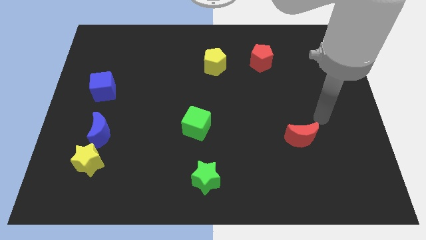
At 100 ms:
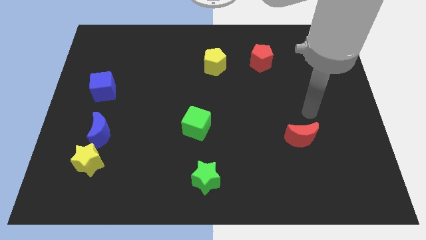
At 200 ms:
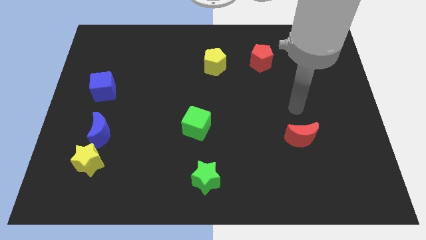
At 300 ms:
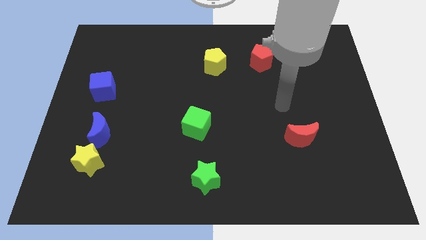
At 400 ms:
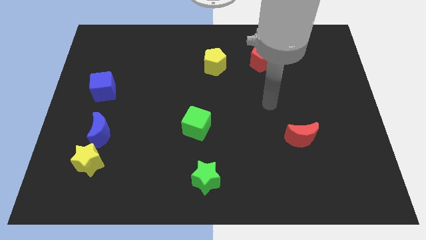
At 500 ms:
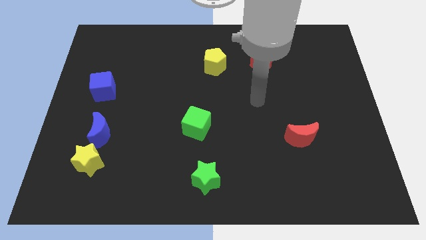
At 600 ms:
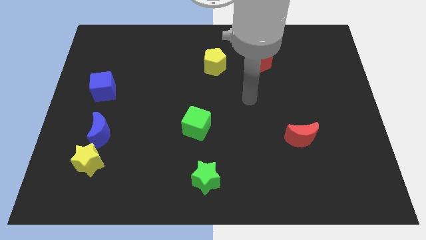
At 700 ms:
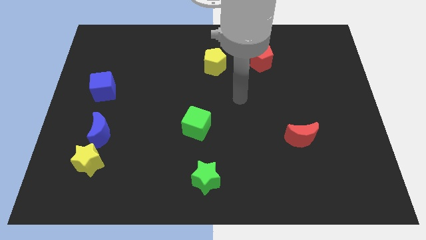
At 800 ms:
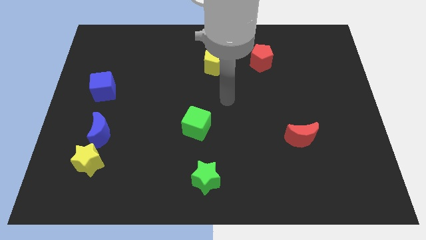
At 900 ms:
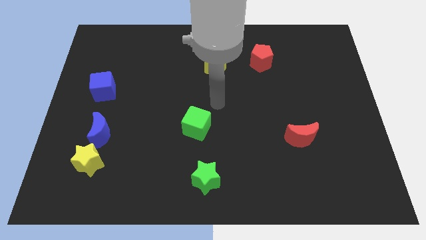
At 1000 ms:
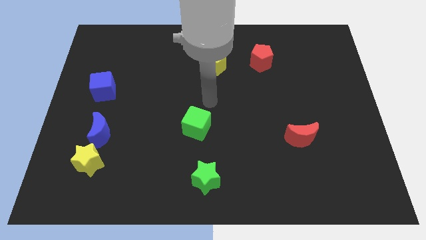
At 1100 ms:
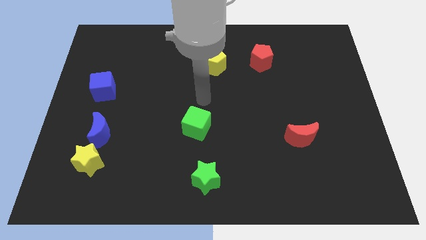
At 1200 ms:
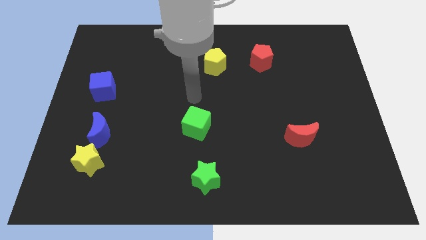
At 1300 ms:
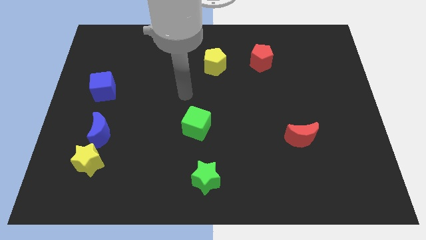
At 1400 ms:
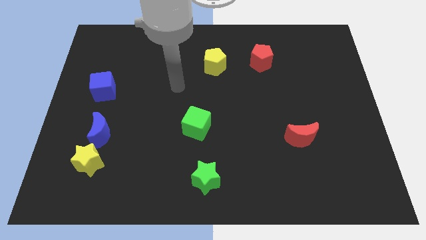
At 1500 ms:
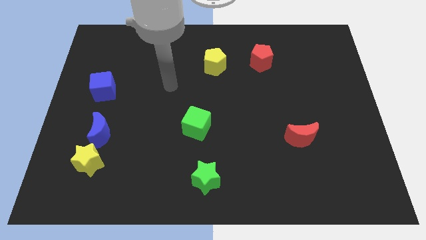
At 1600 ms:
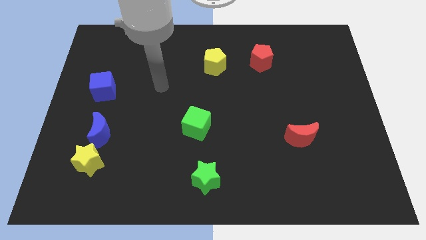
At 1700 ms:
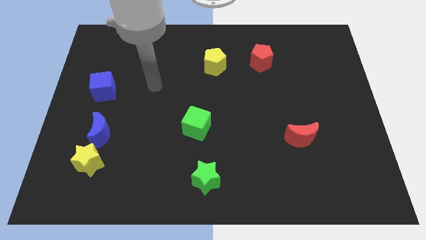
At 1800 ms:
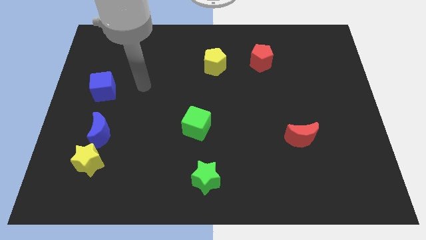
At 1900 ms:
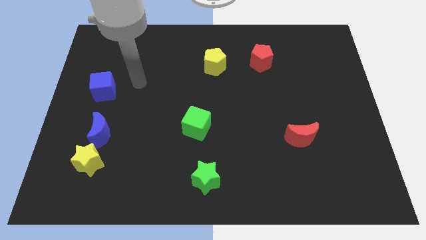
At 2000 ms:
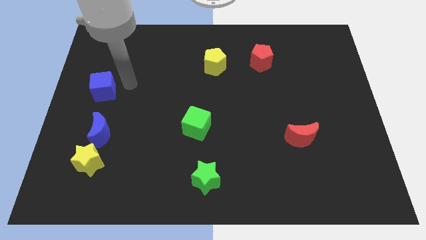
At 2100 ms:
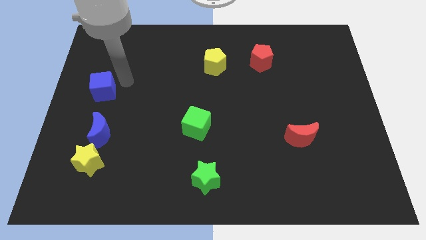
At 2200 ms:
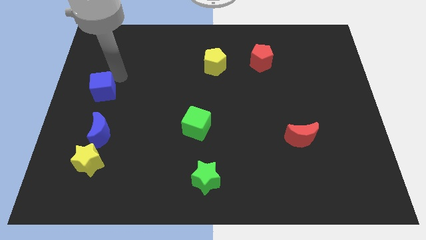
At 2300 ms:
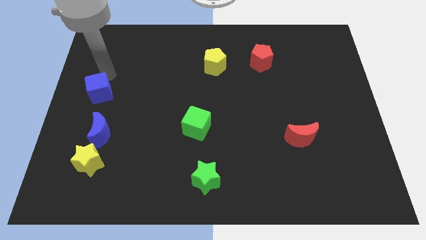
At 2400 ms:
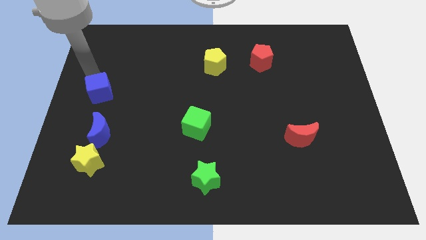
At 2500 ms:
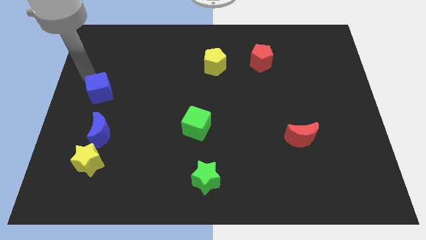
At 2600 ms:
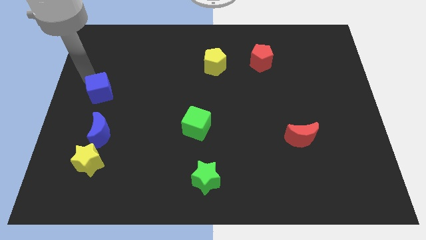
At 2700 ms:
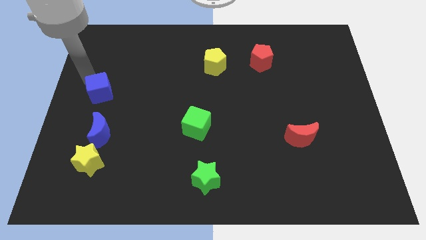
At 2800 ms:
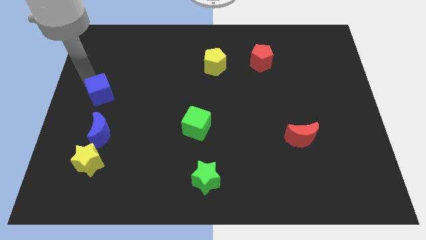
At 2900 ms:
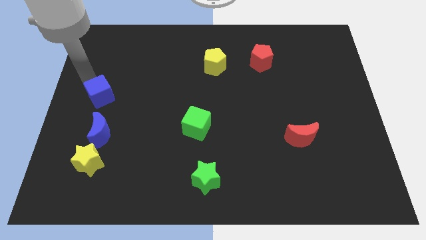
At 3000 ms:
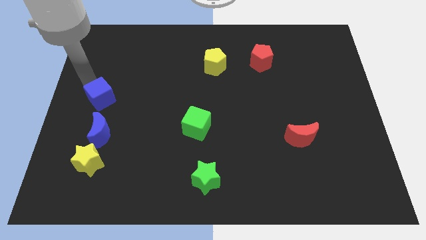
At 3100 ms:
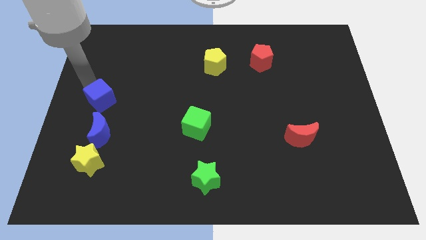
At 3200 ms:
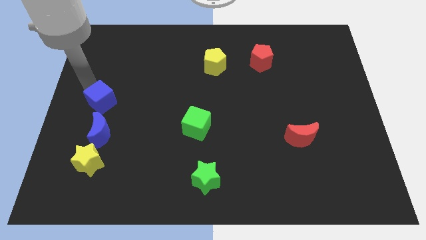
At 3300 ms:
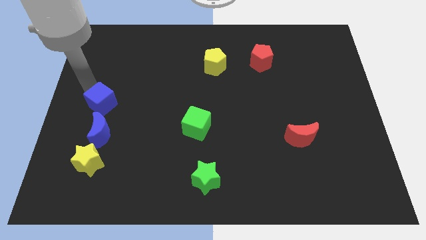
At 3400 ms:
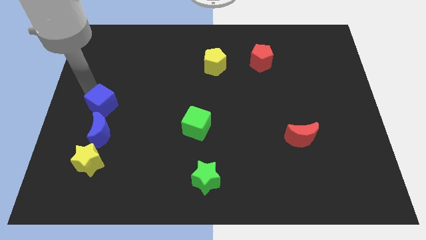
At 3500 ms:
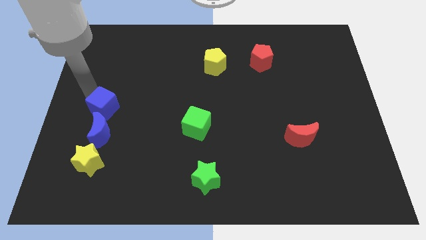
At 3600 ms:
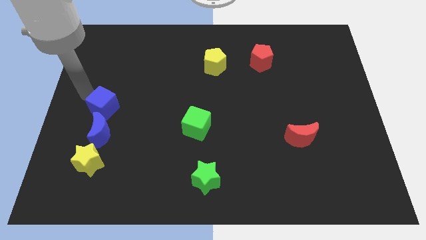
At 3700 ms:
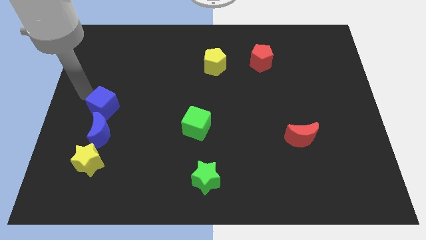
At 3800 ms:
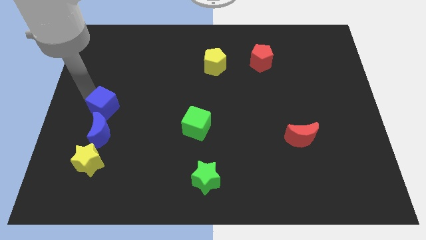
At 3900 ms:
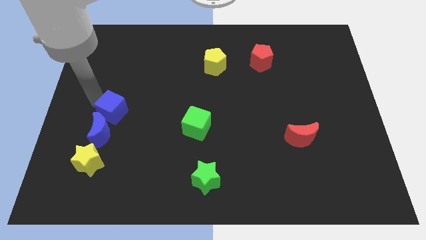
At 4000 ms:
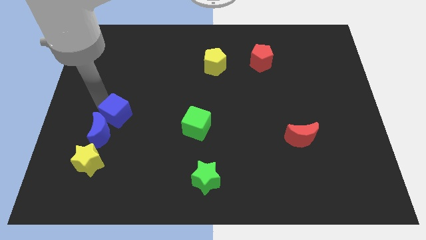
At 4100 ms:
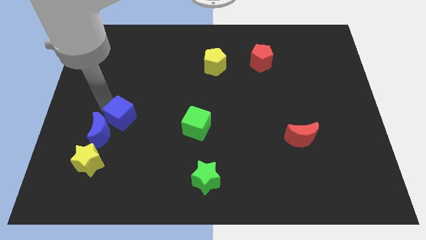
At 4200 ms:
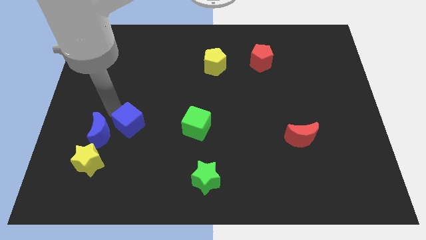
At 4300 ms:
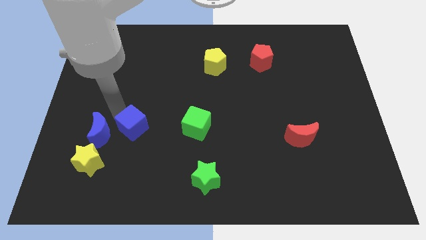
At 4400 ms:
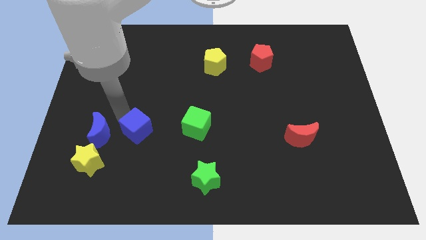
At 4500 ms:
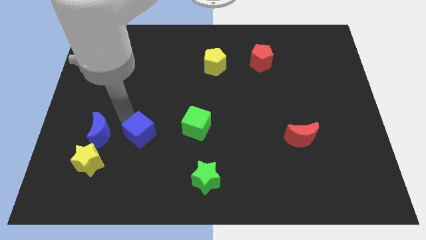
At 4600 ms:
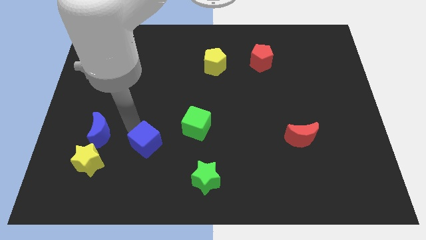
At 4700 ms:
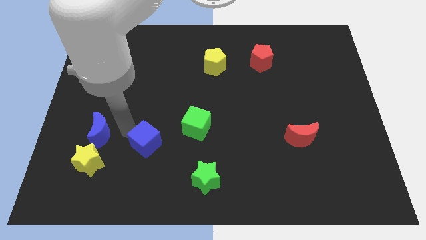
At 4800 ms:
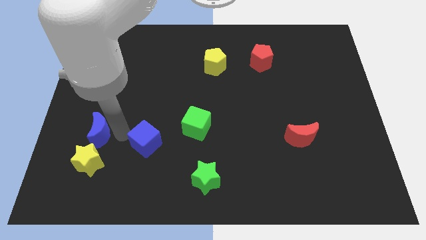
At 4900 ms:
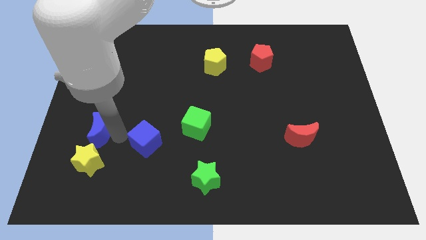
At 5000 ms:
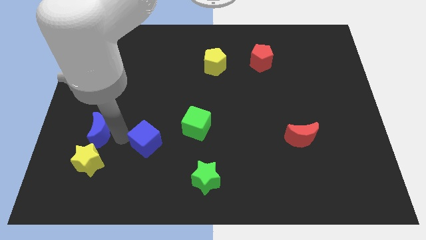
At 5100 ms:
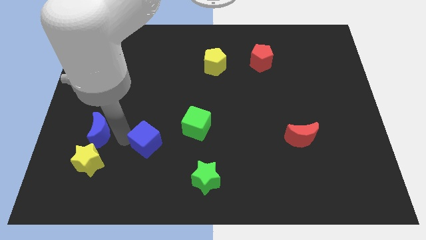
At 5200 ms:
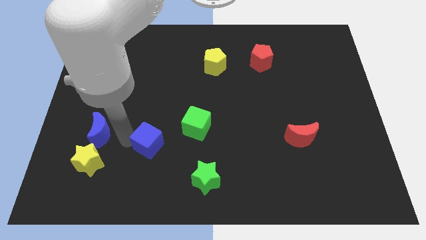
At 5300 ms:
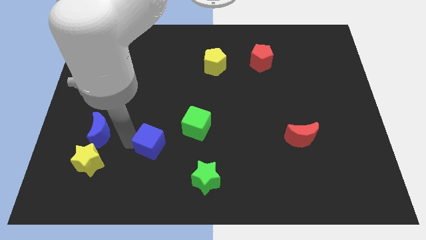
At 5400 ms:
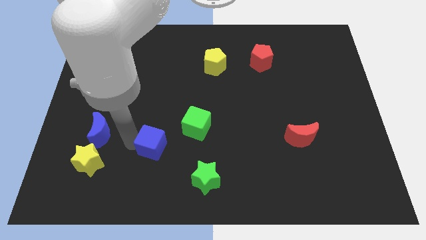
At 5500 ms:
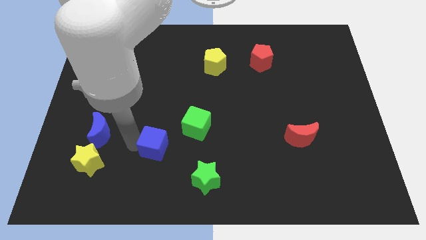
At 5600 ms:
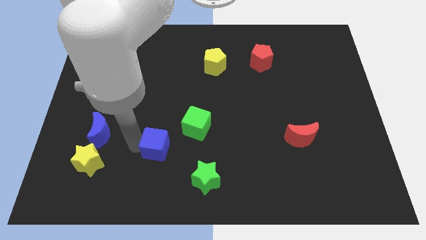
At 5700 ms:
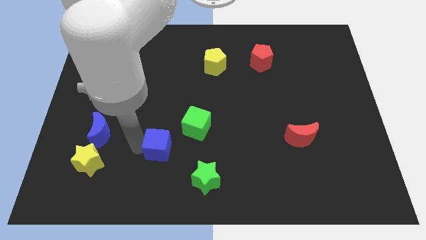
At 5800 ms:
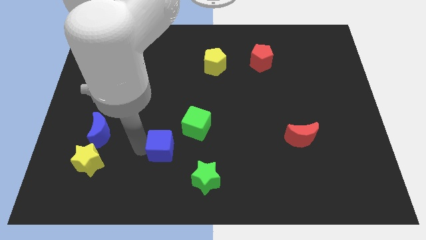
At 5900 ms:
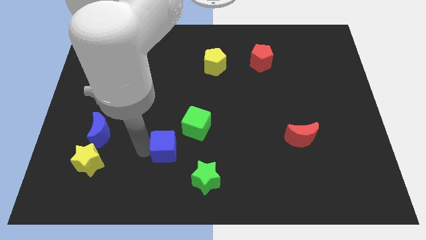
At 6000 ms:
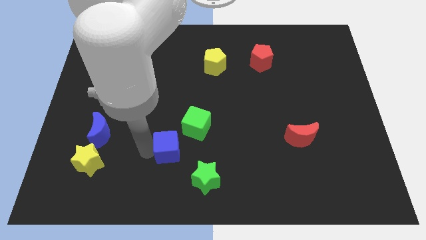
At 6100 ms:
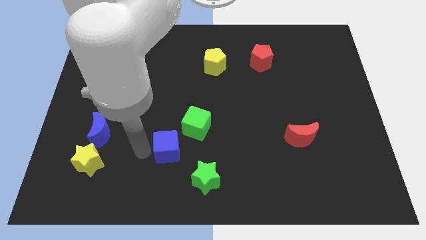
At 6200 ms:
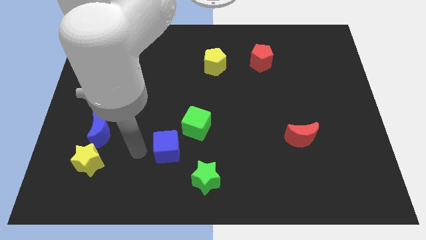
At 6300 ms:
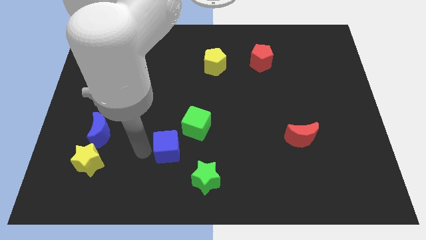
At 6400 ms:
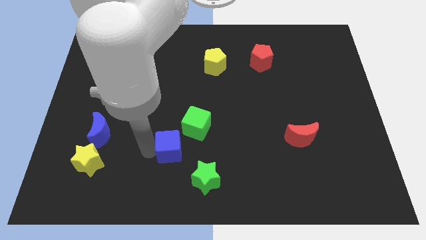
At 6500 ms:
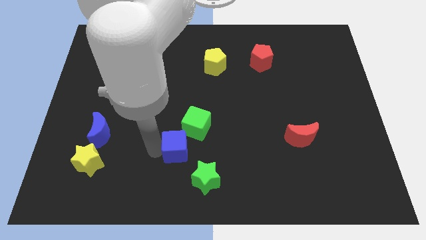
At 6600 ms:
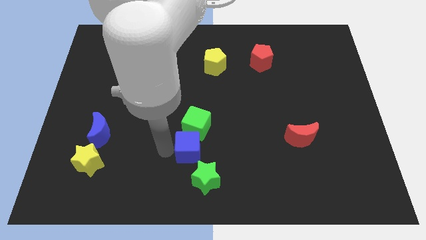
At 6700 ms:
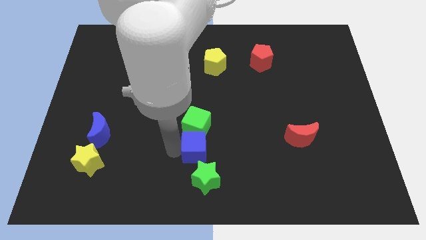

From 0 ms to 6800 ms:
slide the blue cube diagonally down and to the right of the green cube
